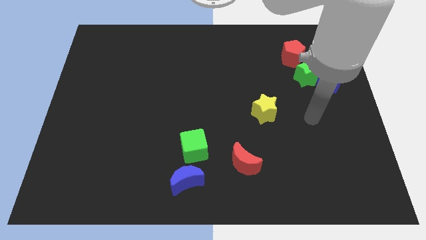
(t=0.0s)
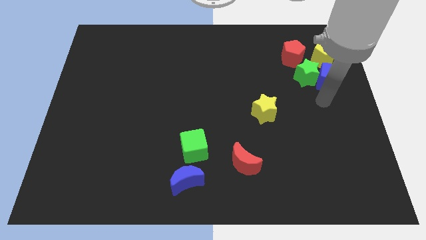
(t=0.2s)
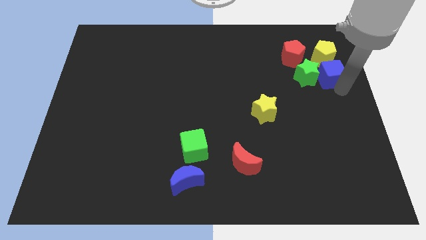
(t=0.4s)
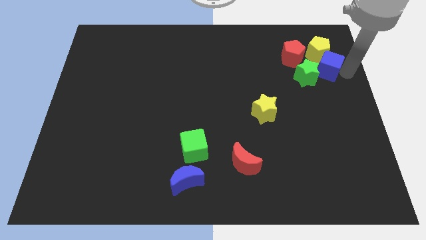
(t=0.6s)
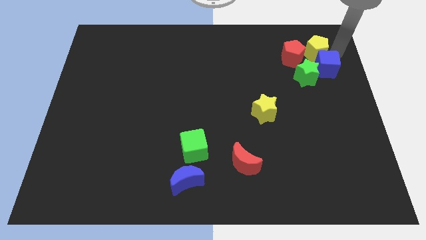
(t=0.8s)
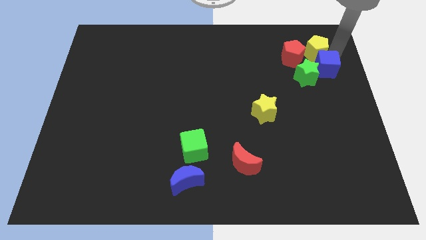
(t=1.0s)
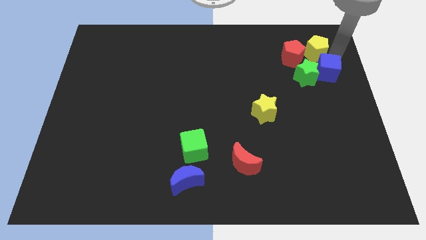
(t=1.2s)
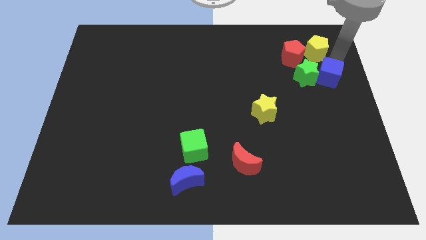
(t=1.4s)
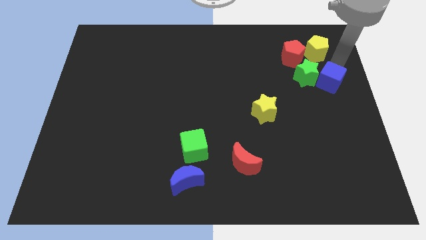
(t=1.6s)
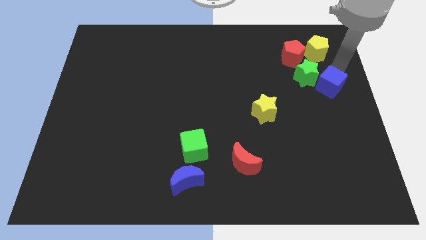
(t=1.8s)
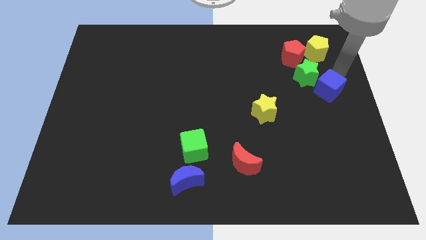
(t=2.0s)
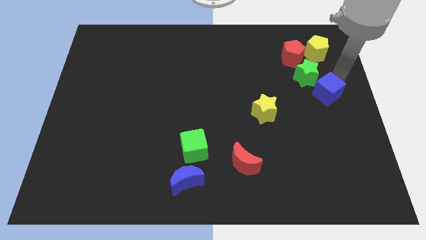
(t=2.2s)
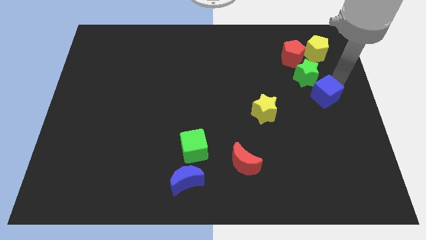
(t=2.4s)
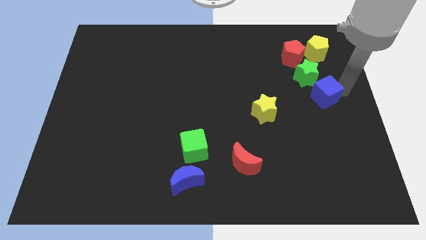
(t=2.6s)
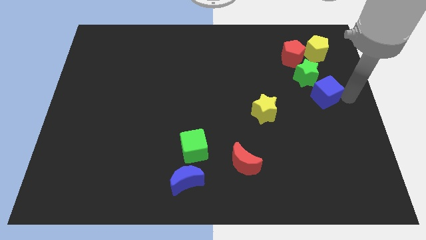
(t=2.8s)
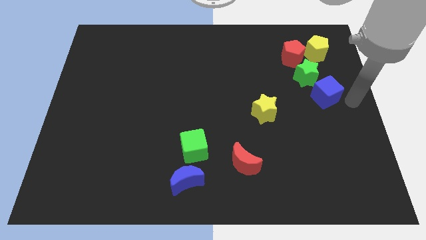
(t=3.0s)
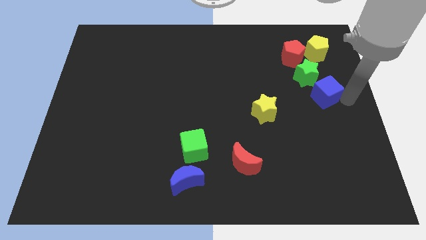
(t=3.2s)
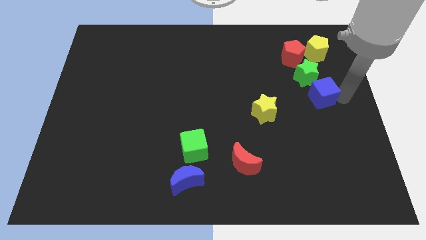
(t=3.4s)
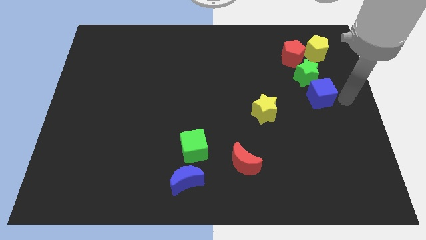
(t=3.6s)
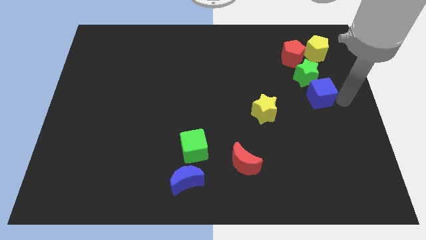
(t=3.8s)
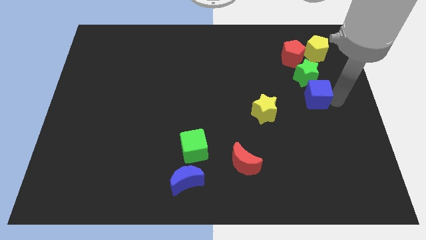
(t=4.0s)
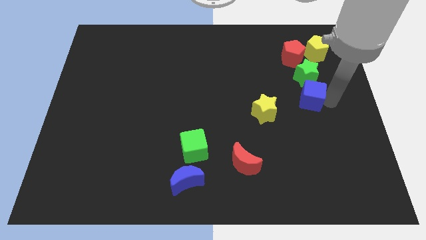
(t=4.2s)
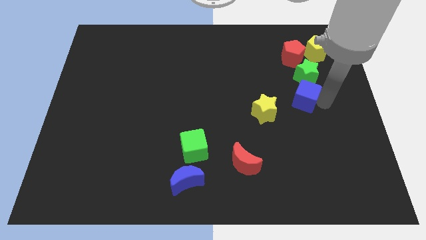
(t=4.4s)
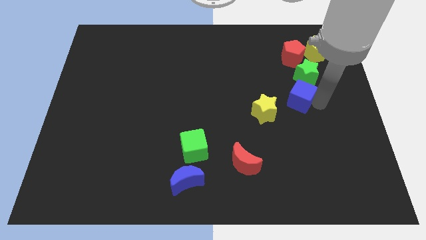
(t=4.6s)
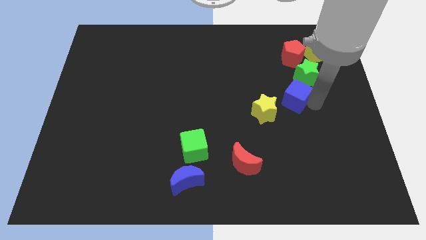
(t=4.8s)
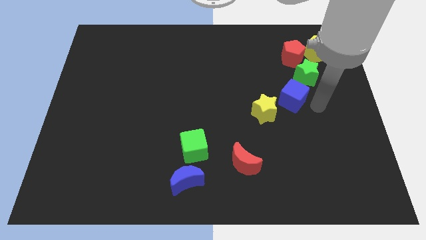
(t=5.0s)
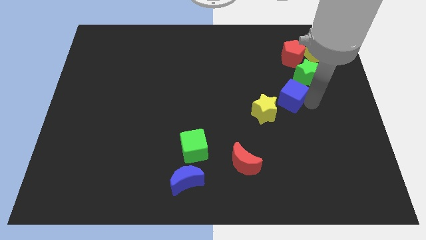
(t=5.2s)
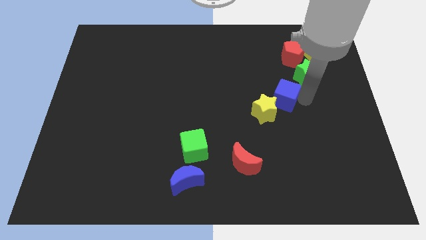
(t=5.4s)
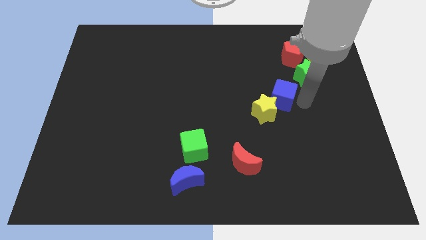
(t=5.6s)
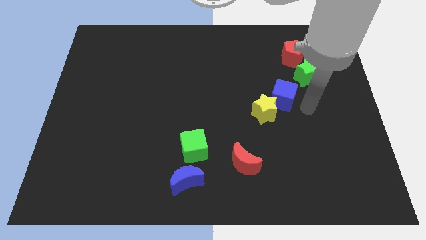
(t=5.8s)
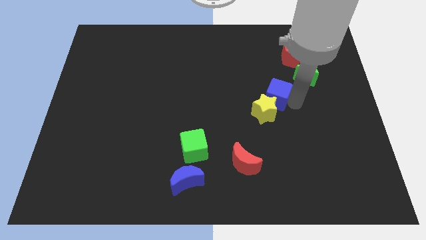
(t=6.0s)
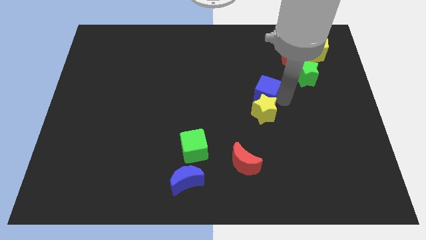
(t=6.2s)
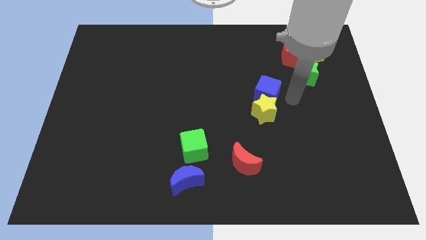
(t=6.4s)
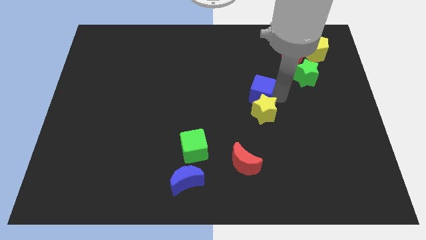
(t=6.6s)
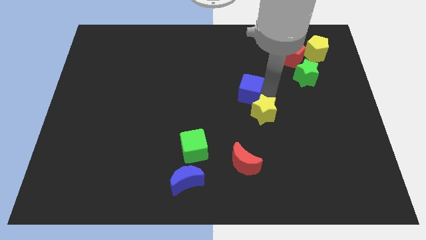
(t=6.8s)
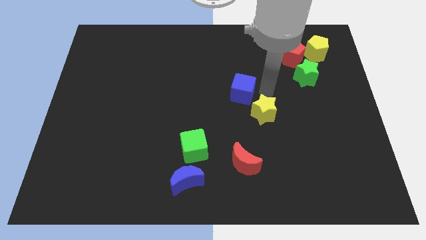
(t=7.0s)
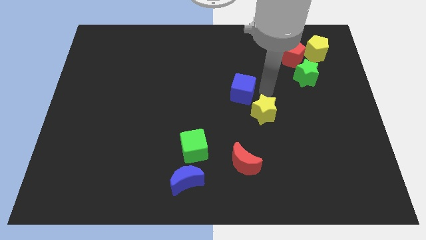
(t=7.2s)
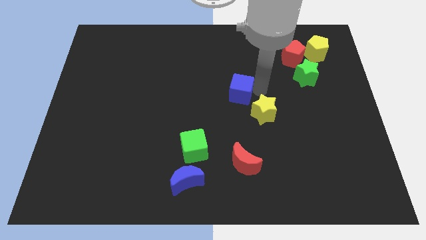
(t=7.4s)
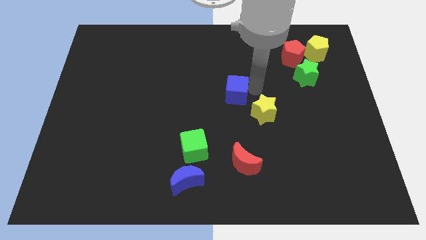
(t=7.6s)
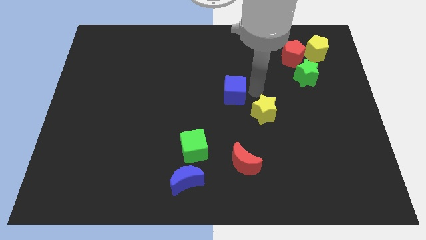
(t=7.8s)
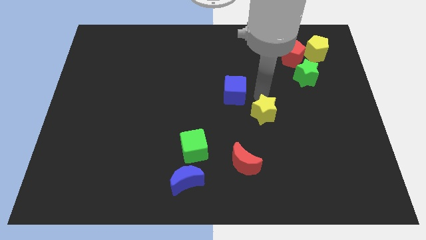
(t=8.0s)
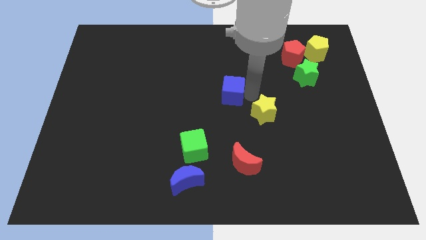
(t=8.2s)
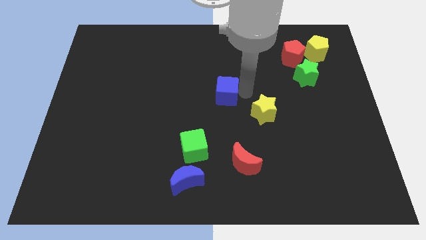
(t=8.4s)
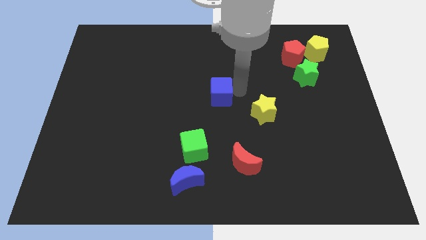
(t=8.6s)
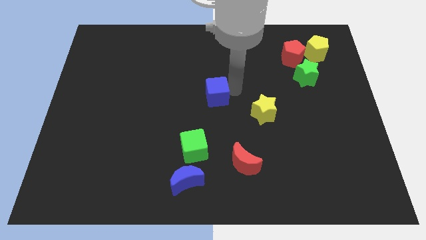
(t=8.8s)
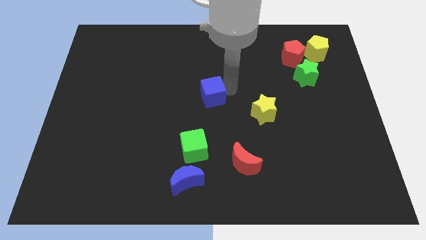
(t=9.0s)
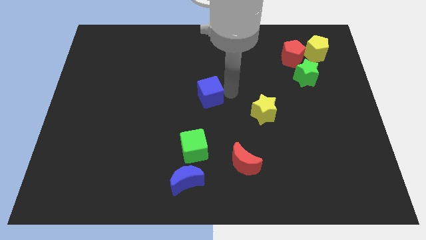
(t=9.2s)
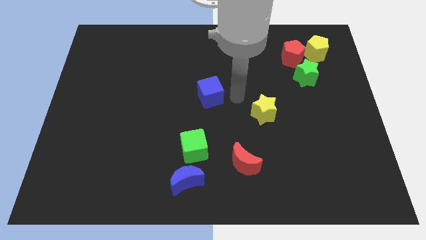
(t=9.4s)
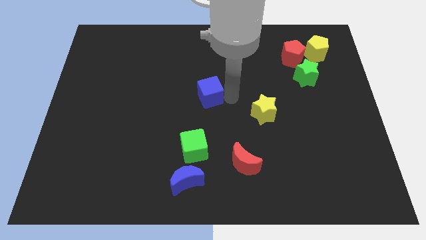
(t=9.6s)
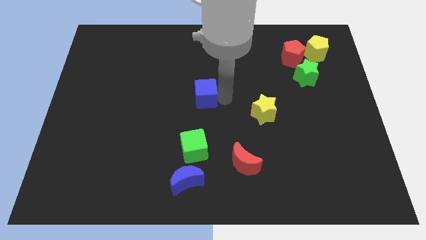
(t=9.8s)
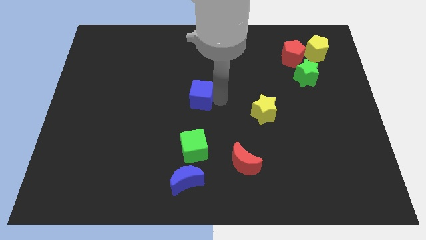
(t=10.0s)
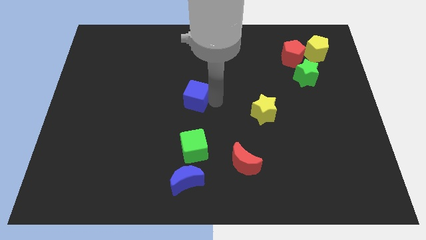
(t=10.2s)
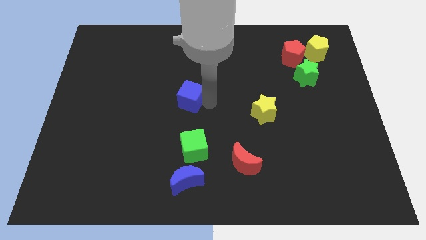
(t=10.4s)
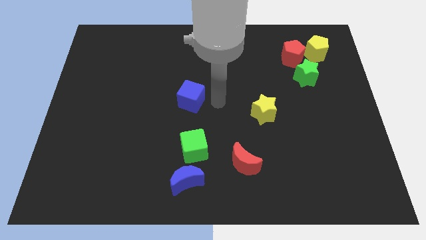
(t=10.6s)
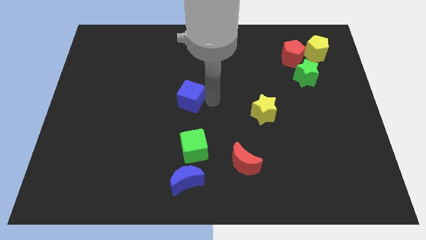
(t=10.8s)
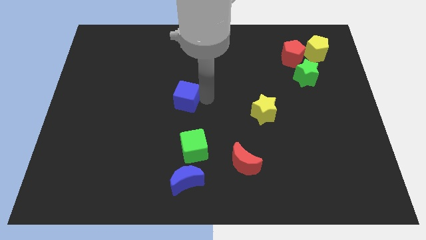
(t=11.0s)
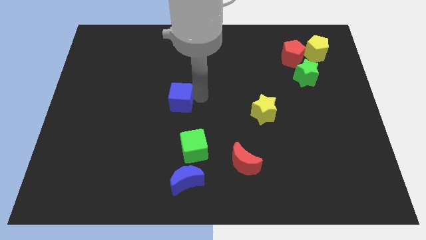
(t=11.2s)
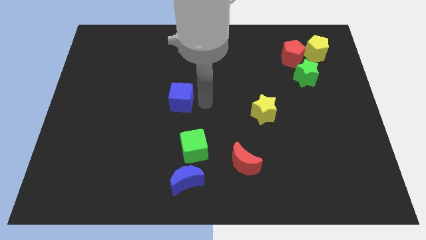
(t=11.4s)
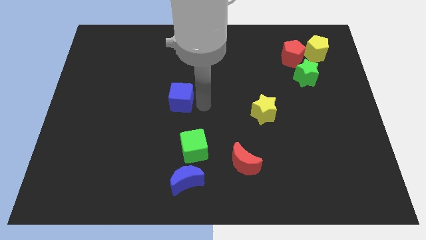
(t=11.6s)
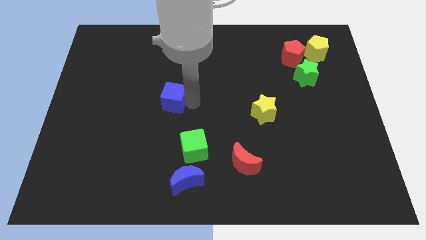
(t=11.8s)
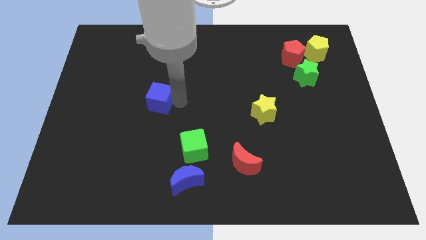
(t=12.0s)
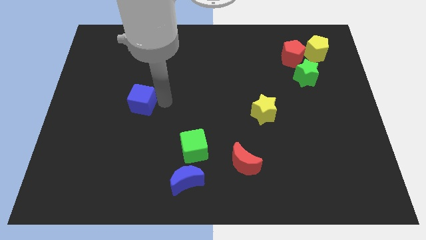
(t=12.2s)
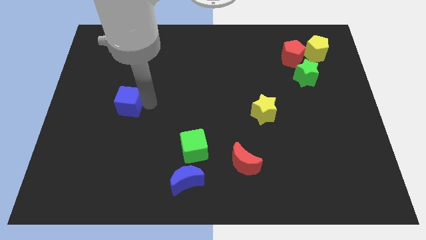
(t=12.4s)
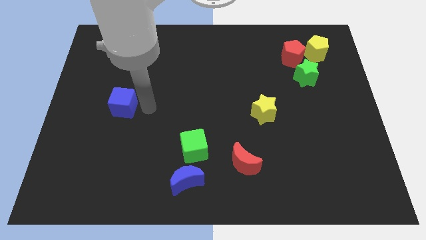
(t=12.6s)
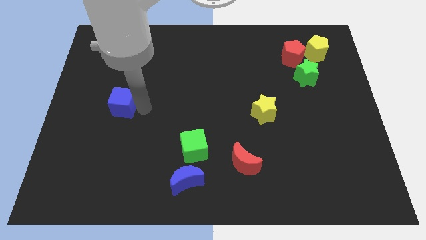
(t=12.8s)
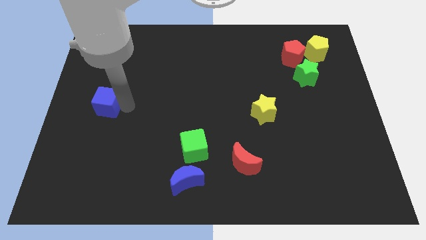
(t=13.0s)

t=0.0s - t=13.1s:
put the blue cube to the left side of the board
